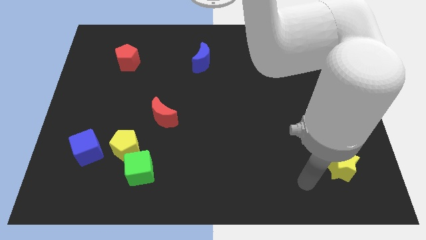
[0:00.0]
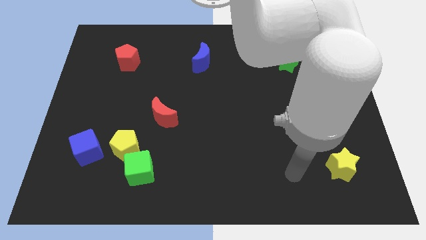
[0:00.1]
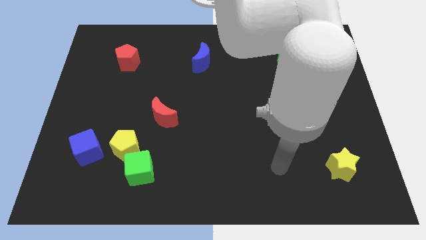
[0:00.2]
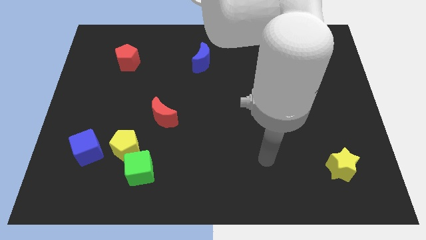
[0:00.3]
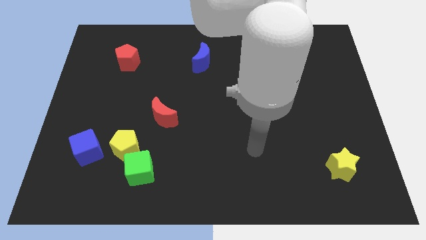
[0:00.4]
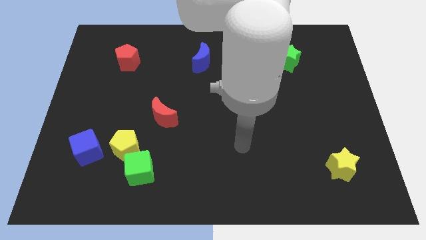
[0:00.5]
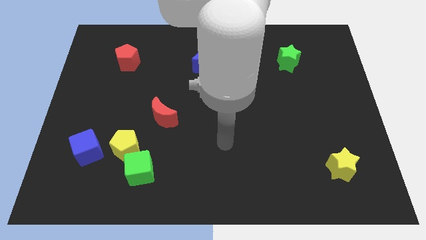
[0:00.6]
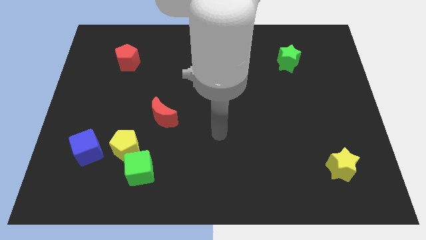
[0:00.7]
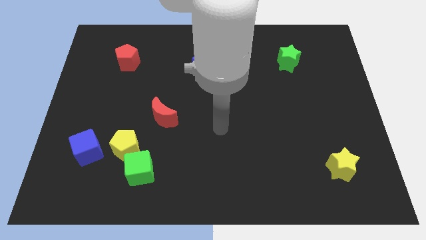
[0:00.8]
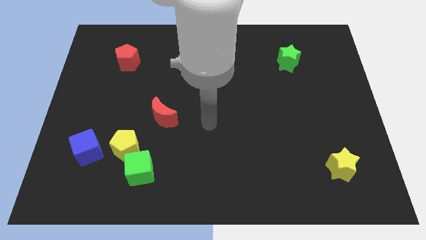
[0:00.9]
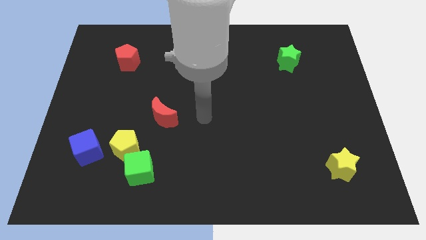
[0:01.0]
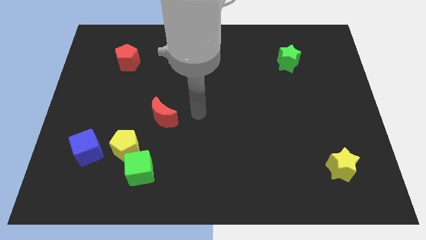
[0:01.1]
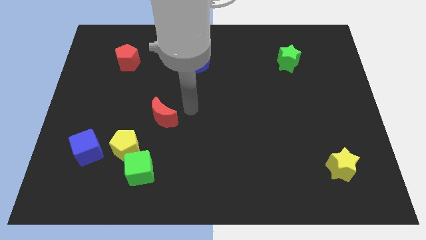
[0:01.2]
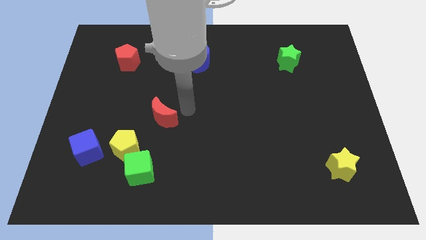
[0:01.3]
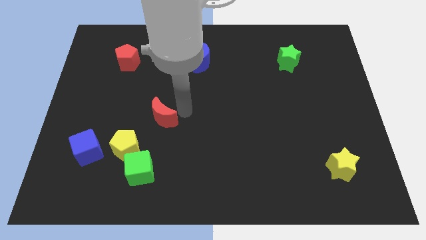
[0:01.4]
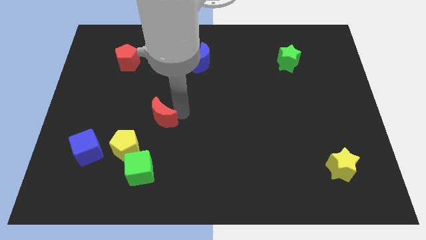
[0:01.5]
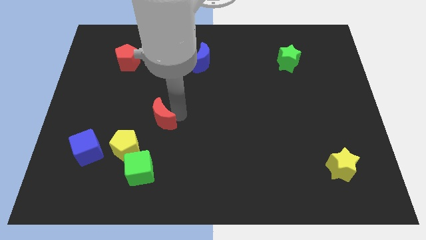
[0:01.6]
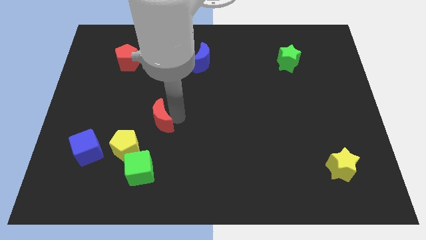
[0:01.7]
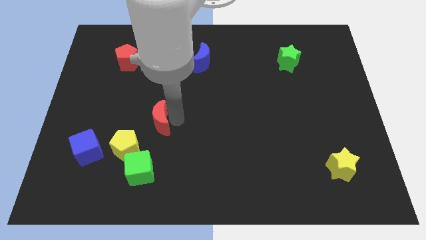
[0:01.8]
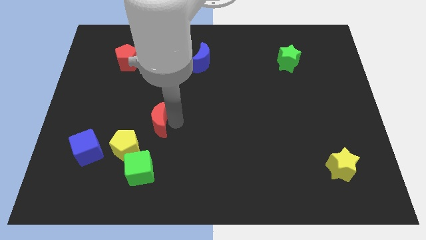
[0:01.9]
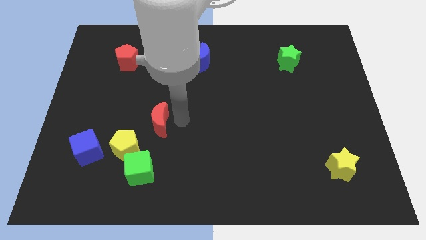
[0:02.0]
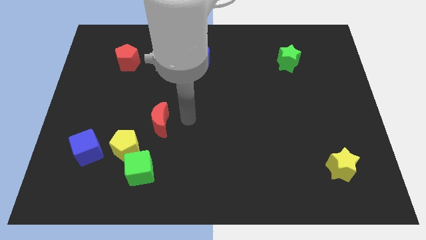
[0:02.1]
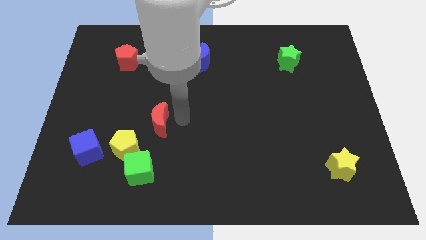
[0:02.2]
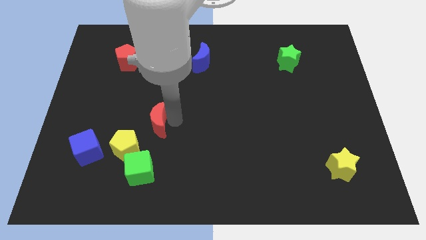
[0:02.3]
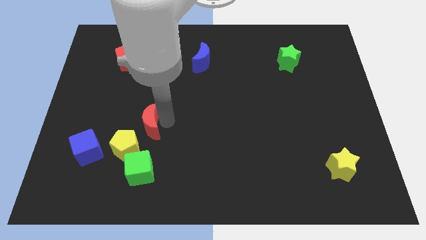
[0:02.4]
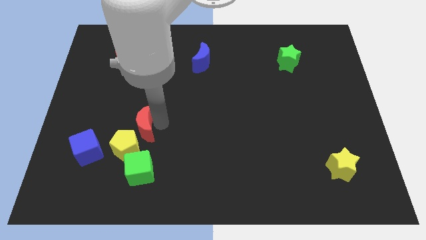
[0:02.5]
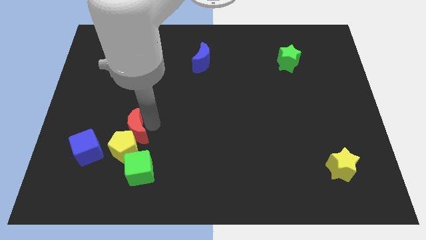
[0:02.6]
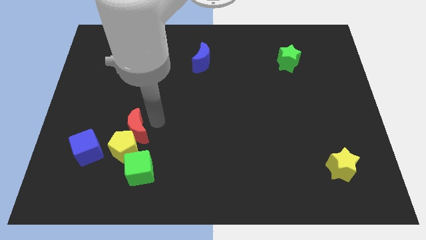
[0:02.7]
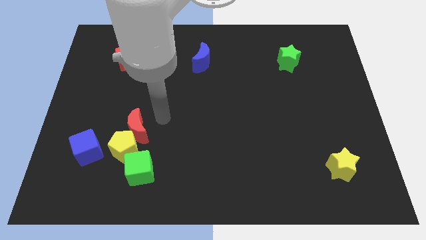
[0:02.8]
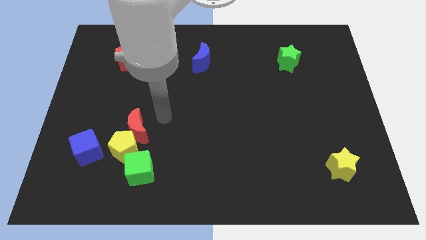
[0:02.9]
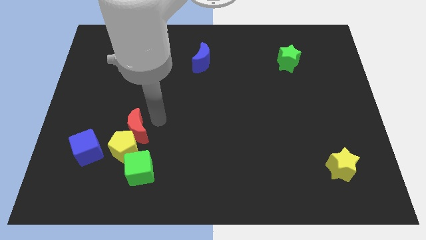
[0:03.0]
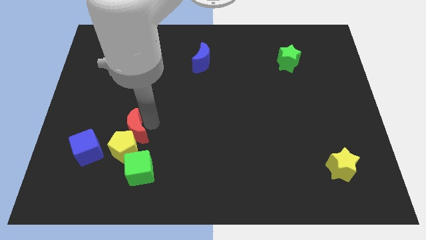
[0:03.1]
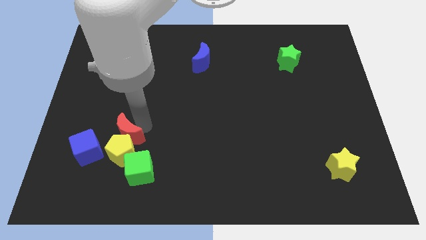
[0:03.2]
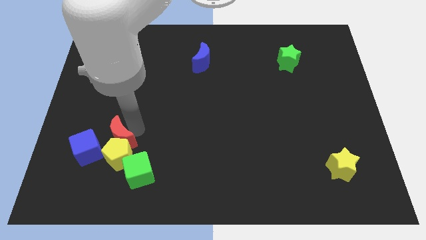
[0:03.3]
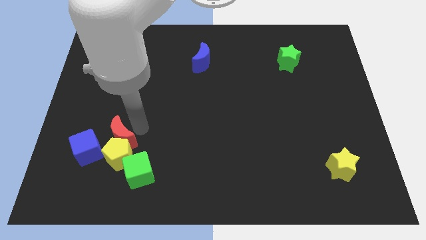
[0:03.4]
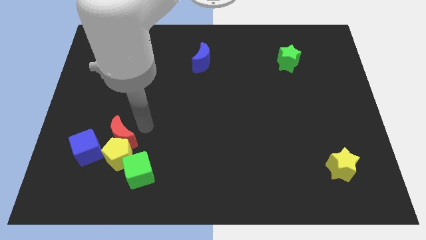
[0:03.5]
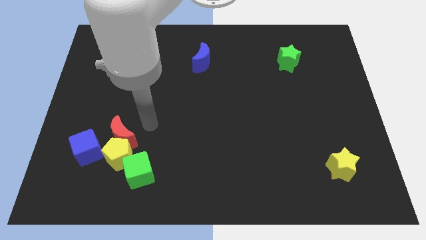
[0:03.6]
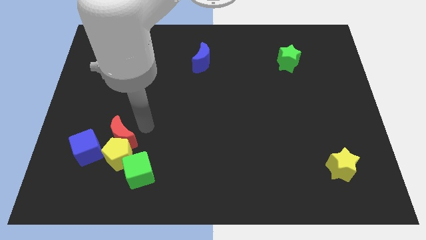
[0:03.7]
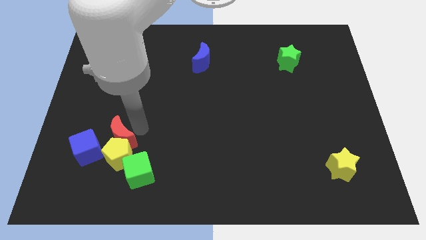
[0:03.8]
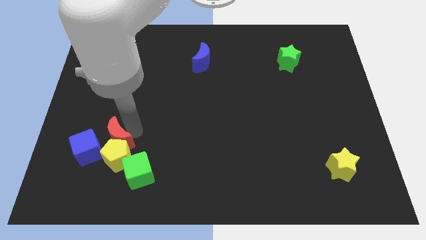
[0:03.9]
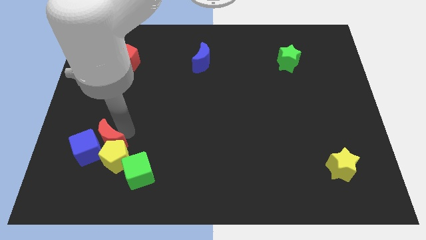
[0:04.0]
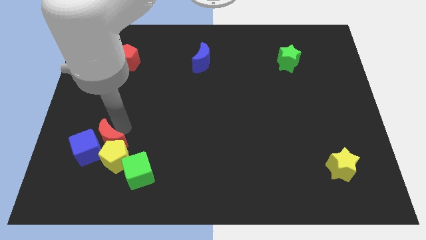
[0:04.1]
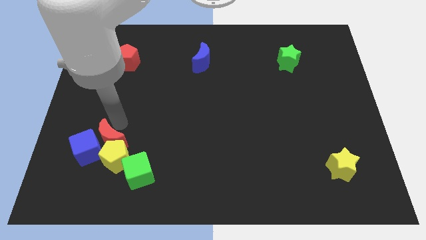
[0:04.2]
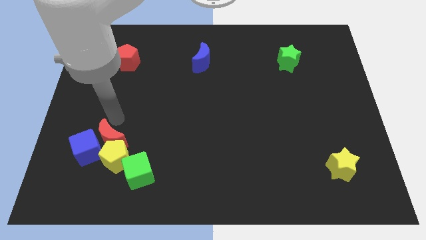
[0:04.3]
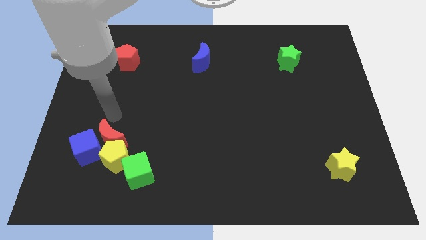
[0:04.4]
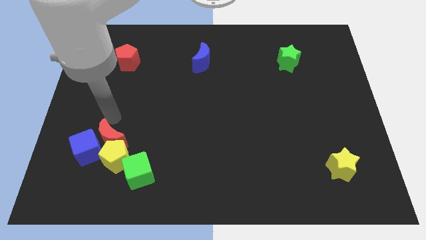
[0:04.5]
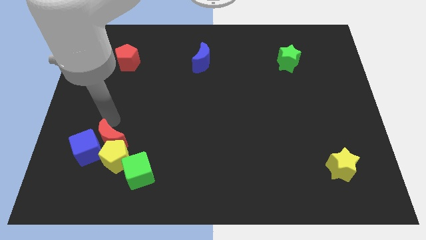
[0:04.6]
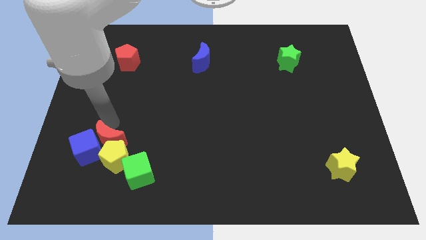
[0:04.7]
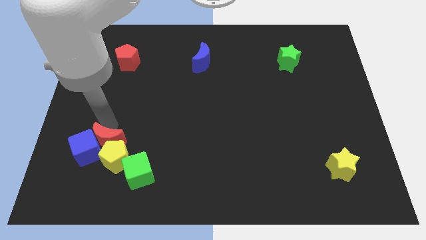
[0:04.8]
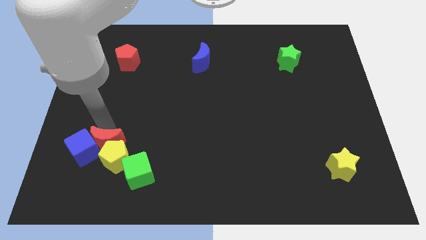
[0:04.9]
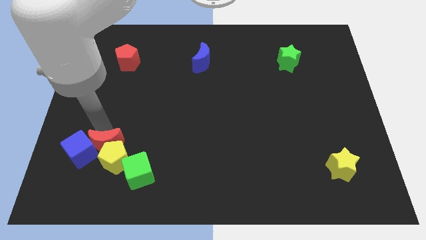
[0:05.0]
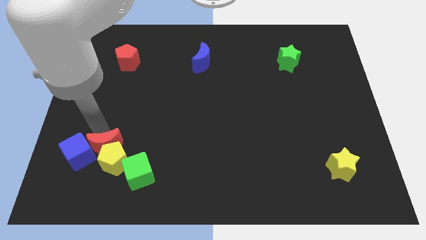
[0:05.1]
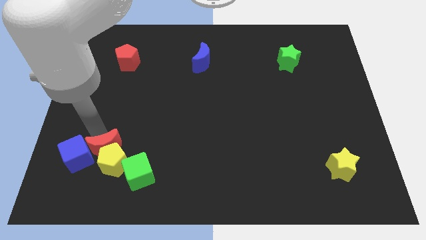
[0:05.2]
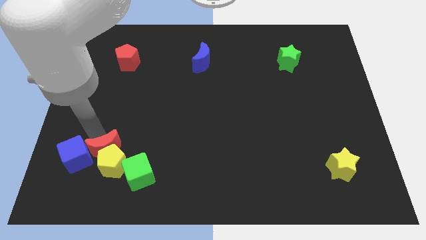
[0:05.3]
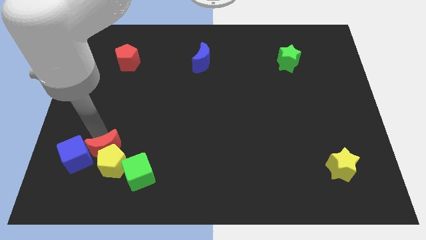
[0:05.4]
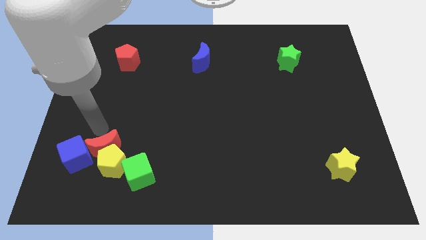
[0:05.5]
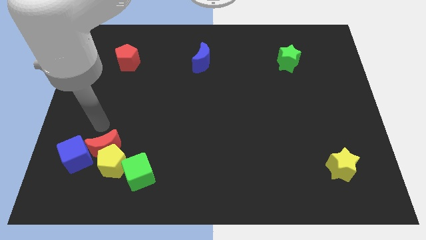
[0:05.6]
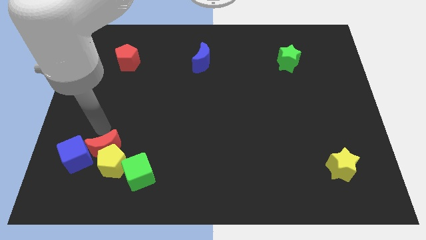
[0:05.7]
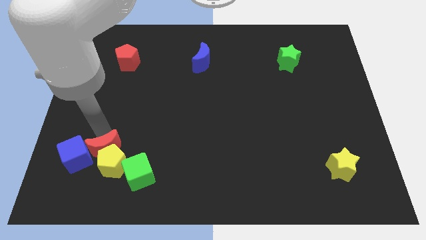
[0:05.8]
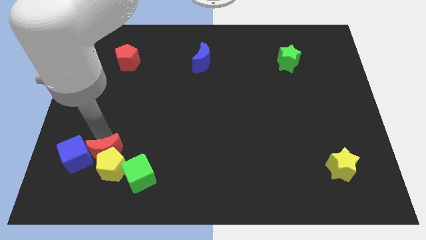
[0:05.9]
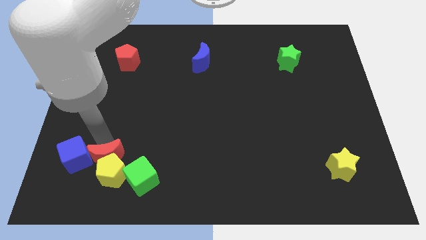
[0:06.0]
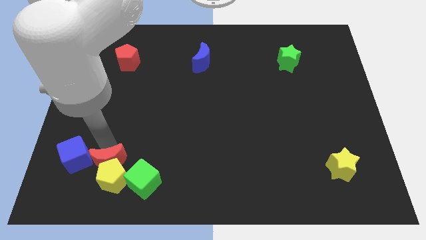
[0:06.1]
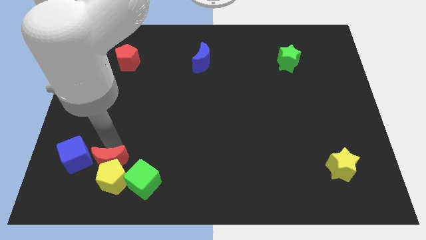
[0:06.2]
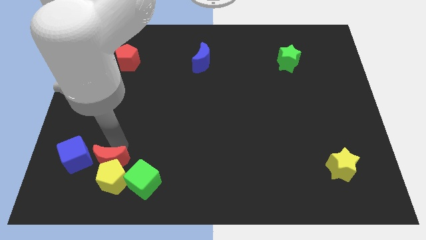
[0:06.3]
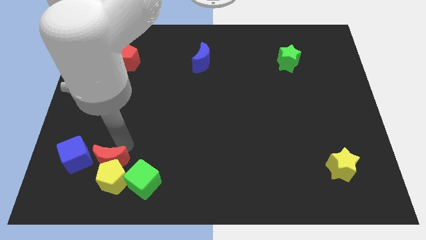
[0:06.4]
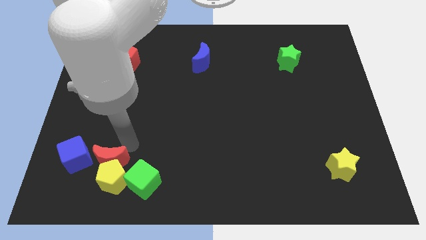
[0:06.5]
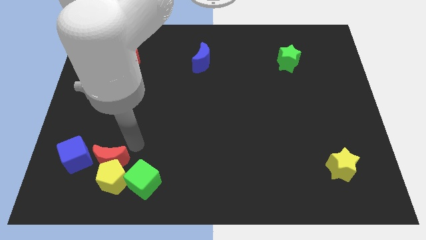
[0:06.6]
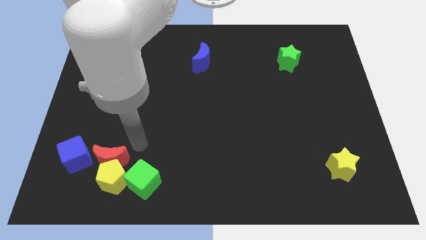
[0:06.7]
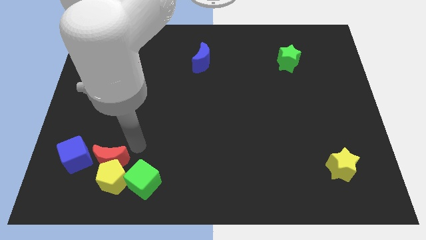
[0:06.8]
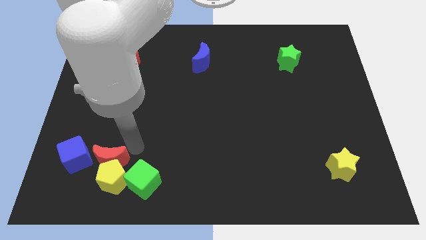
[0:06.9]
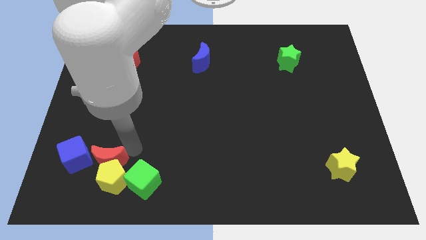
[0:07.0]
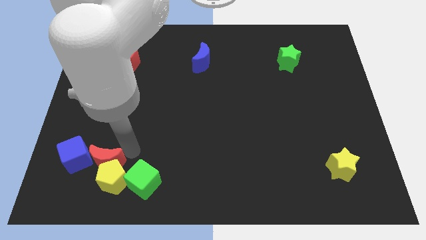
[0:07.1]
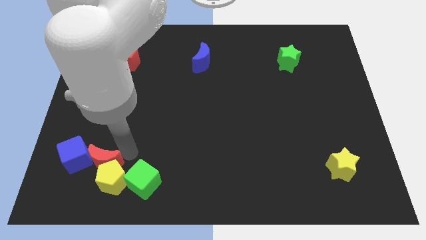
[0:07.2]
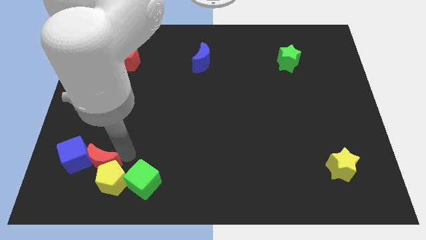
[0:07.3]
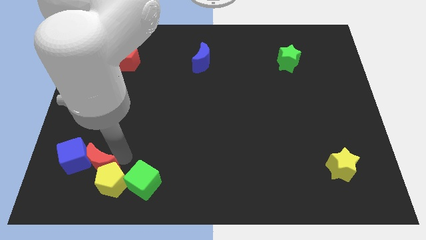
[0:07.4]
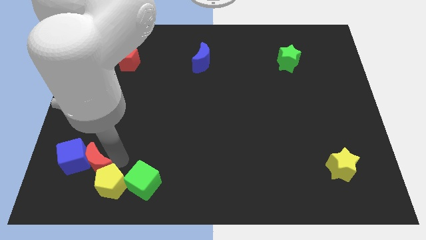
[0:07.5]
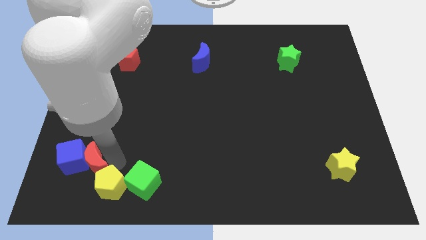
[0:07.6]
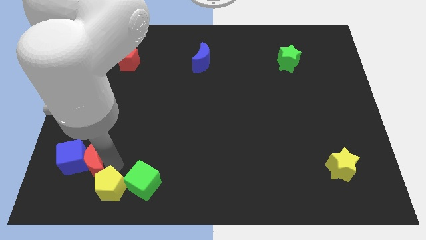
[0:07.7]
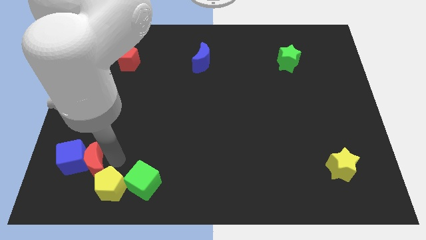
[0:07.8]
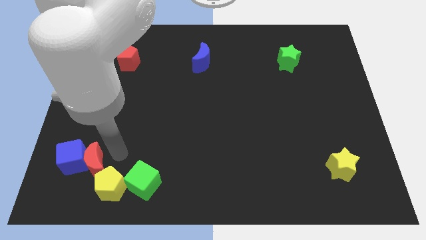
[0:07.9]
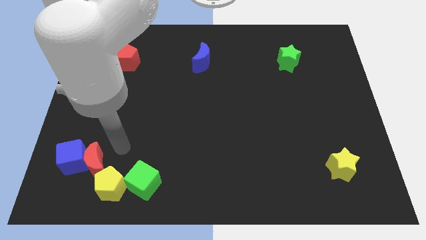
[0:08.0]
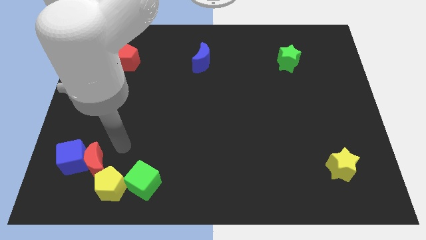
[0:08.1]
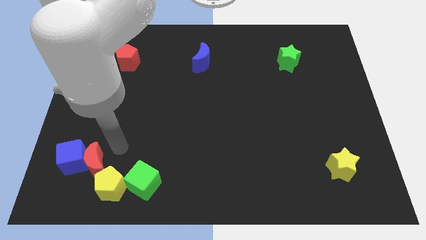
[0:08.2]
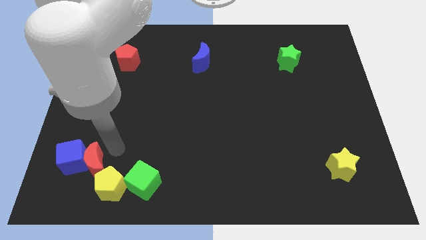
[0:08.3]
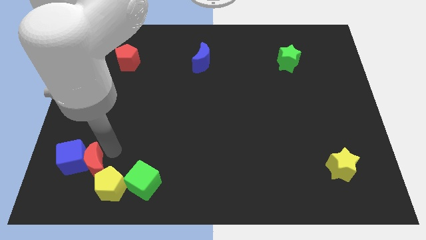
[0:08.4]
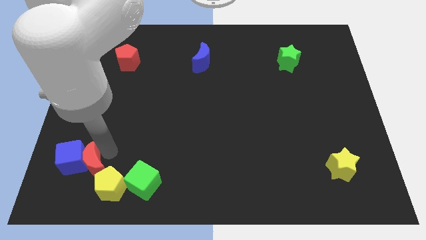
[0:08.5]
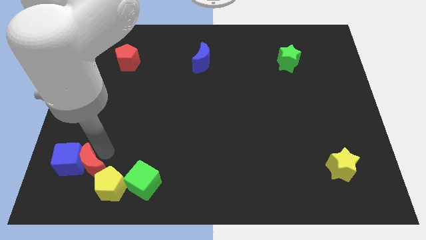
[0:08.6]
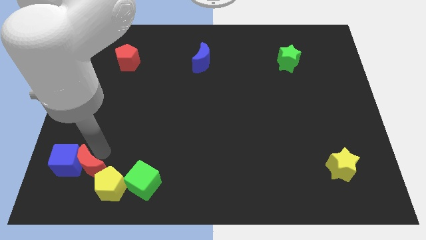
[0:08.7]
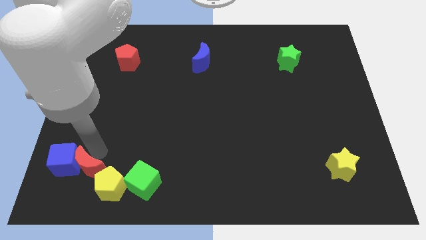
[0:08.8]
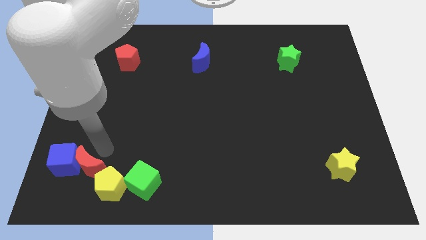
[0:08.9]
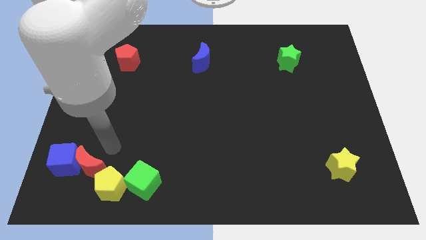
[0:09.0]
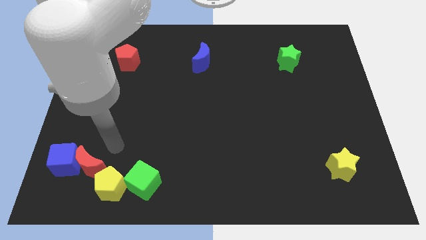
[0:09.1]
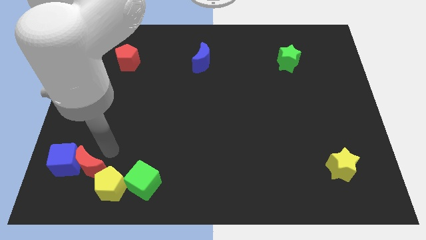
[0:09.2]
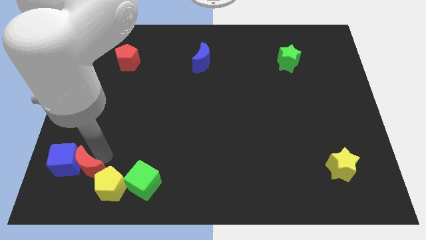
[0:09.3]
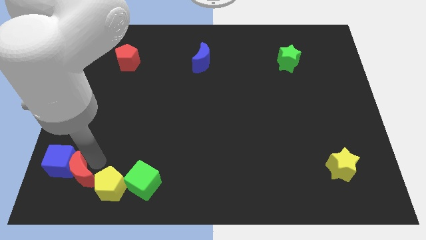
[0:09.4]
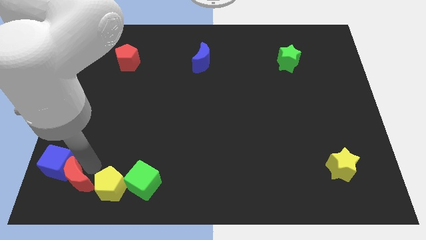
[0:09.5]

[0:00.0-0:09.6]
push the red moon to the bottom left of the board
